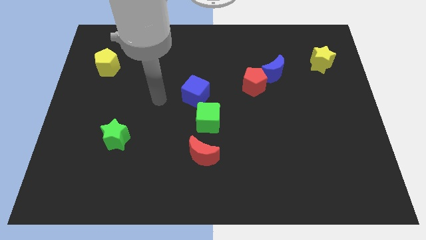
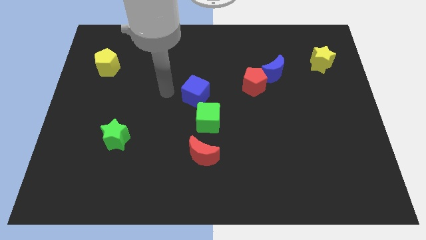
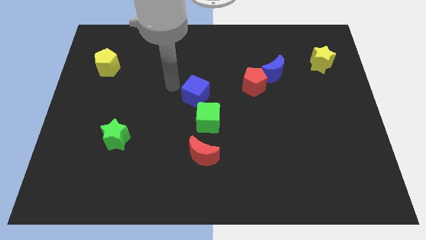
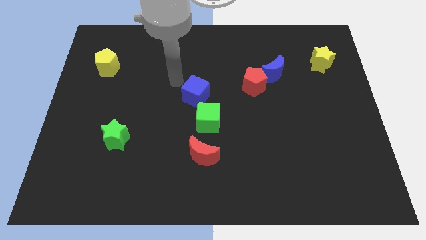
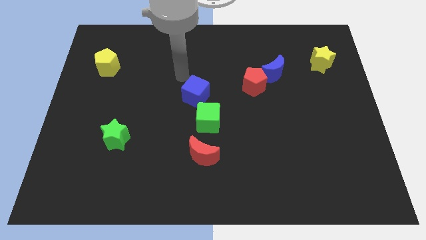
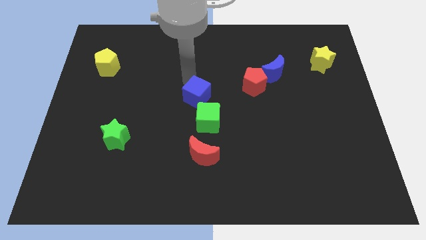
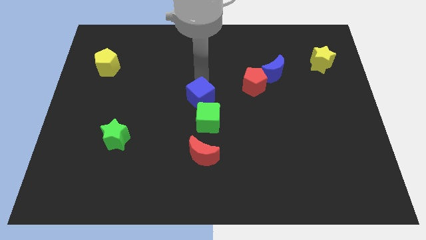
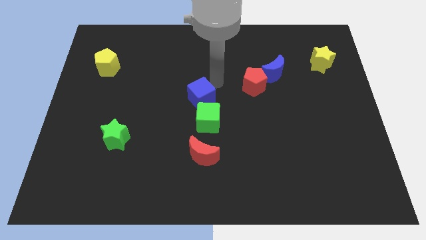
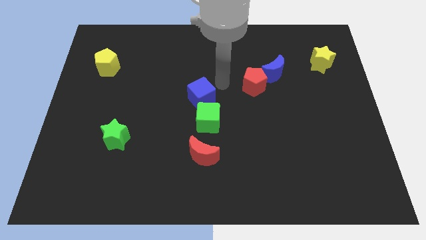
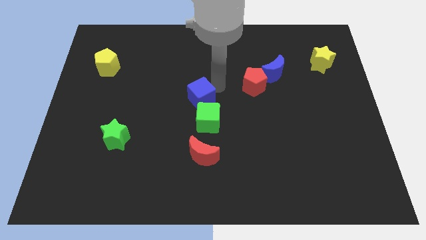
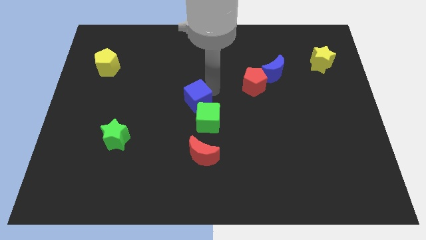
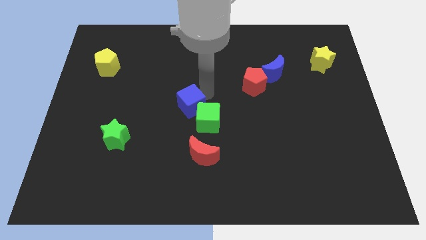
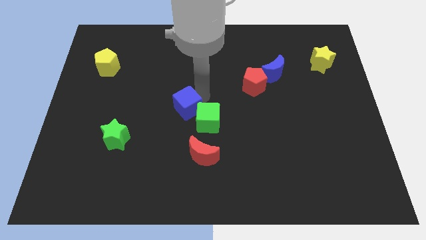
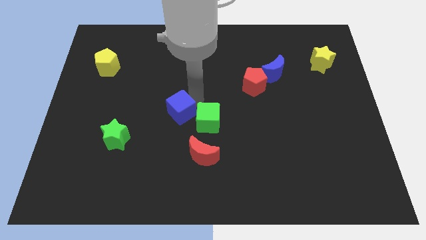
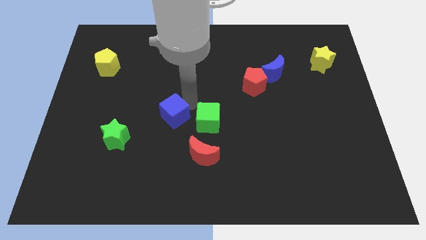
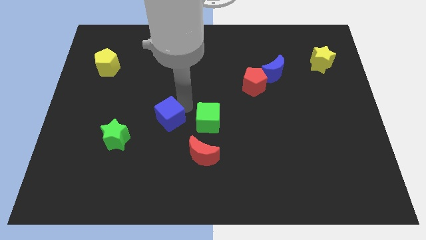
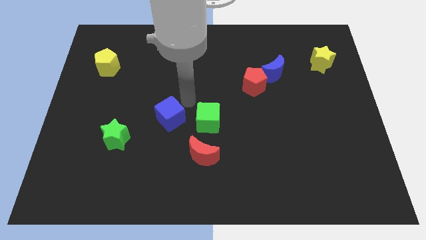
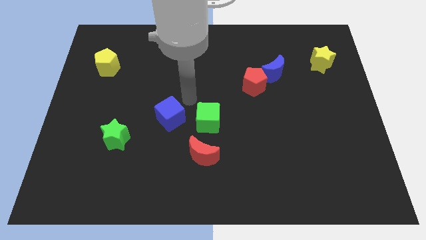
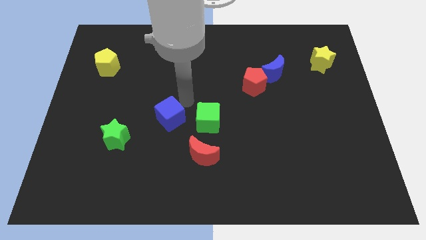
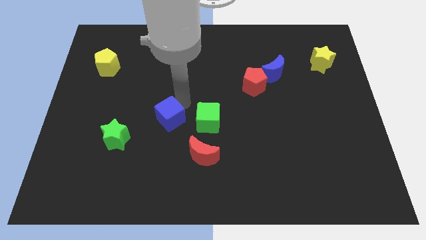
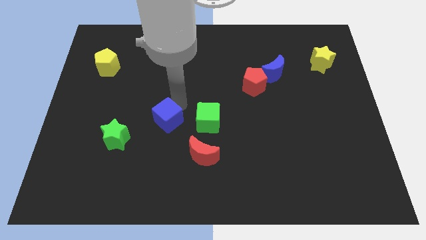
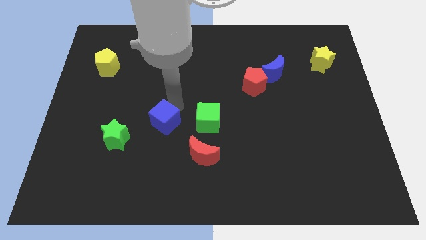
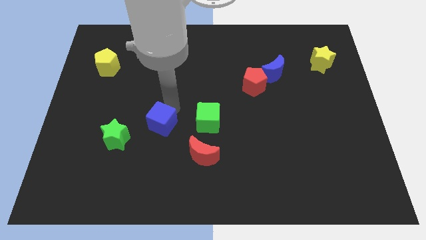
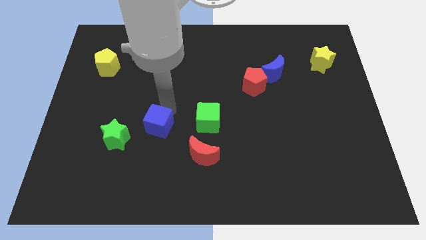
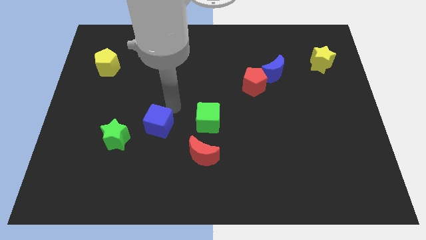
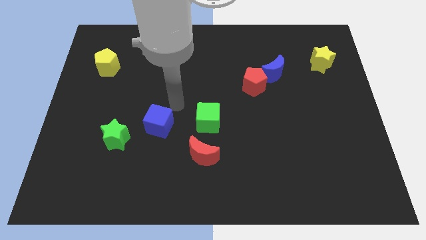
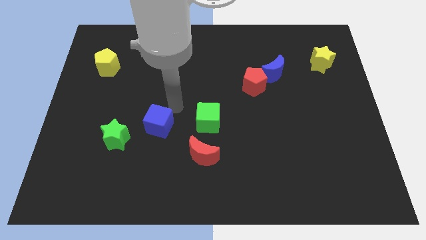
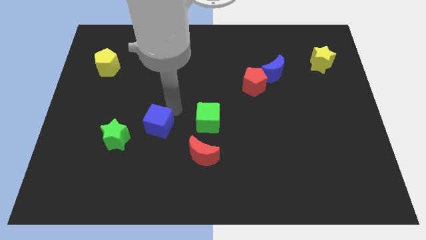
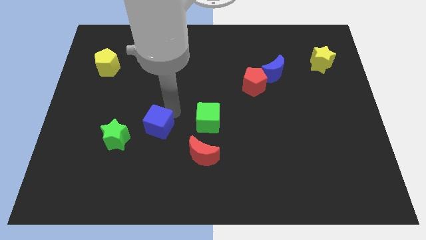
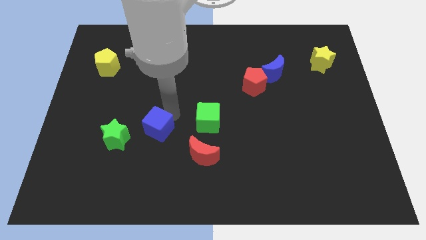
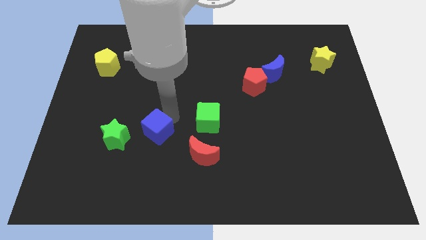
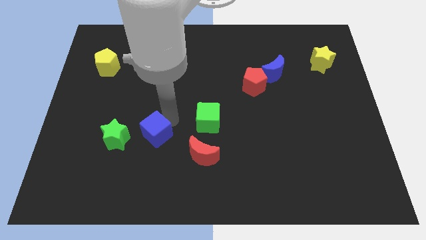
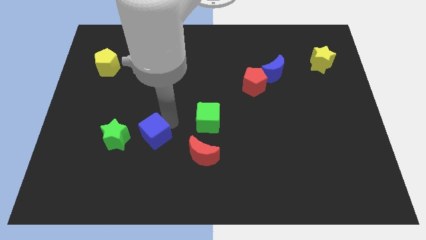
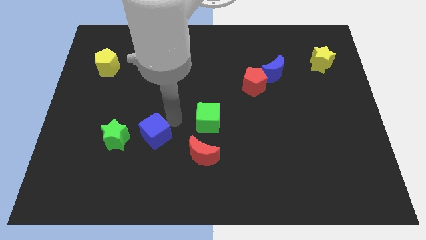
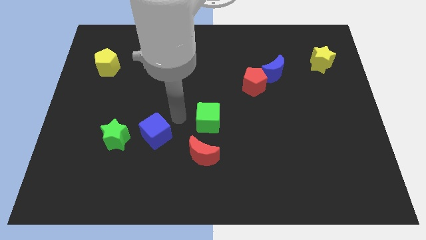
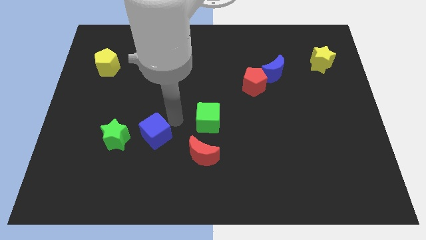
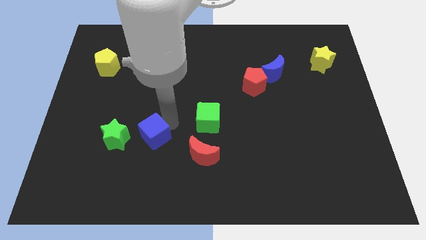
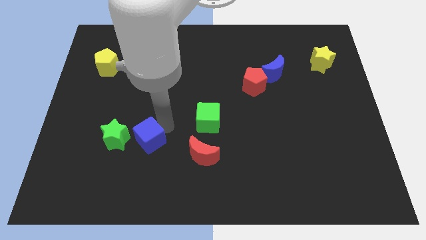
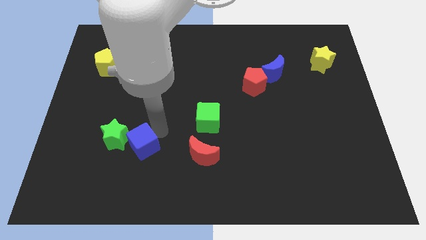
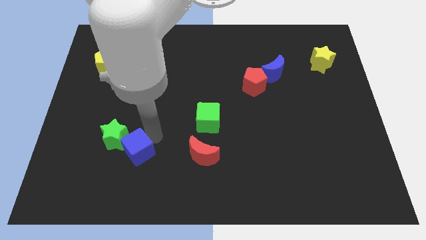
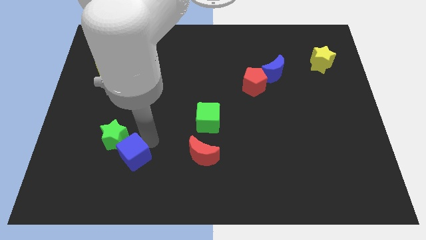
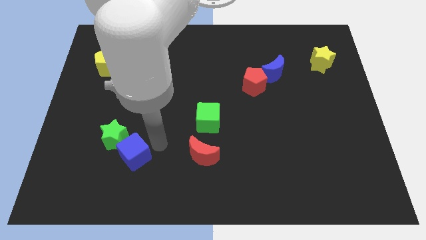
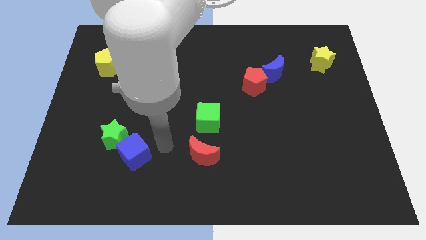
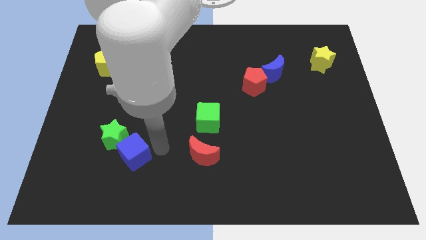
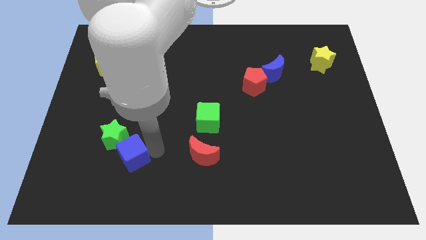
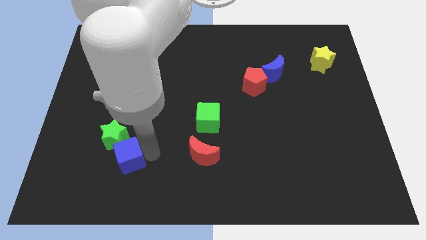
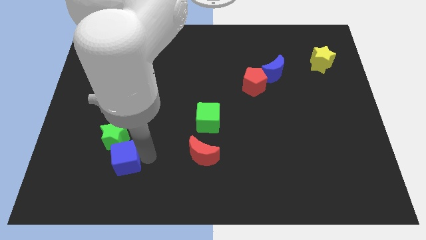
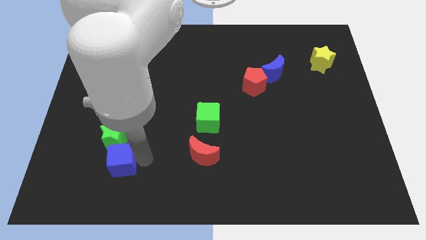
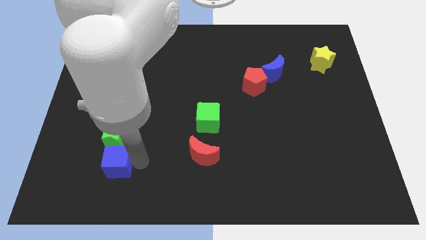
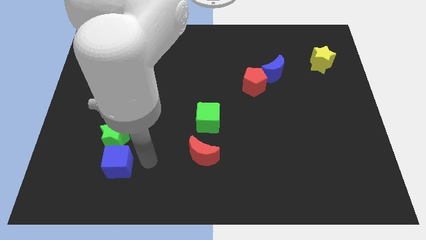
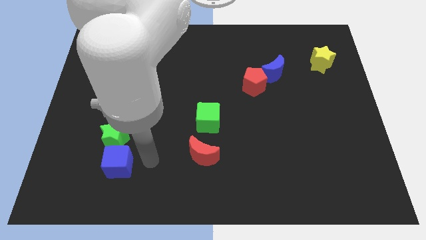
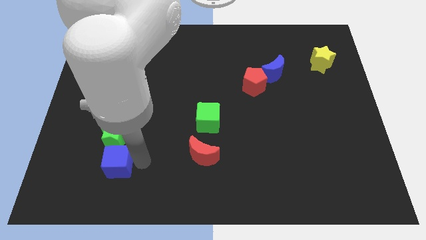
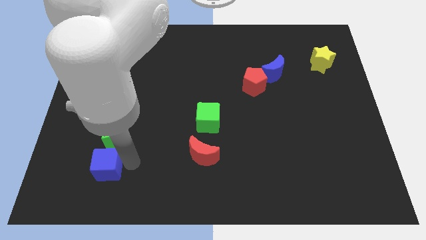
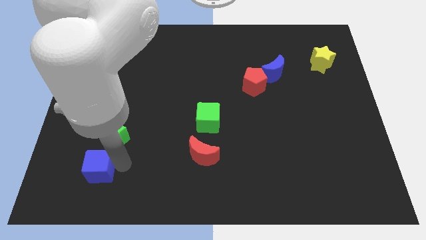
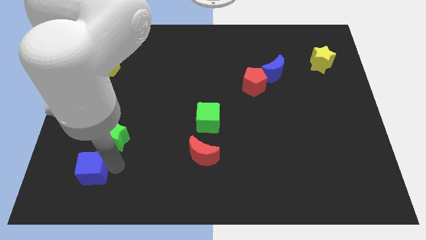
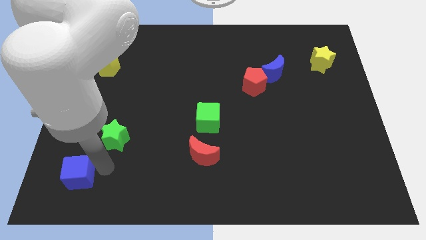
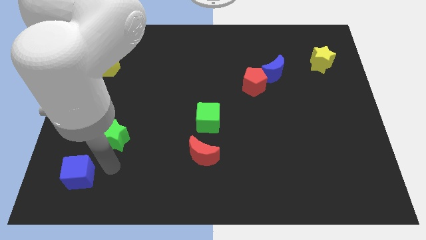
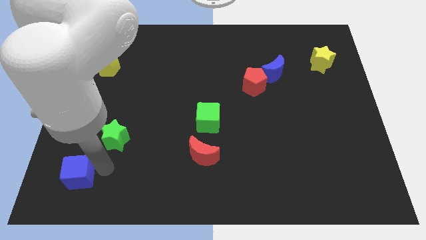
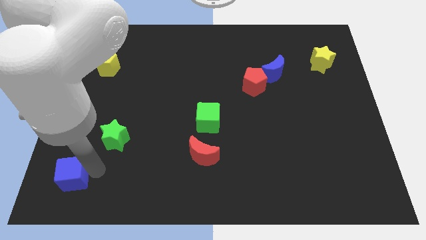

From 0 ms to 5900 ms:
slide the blue cube to the lower left corner

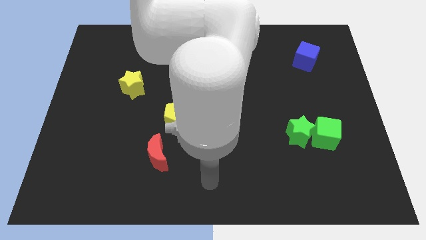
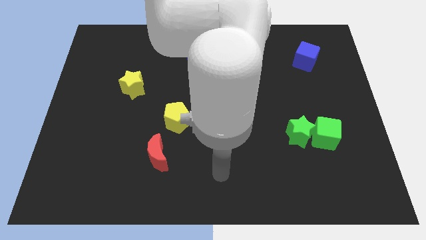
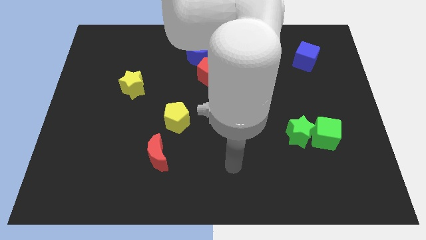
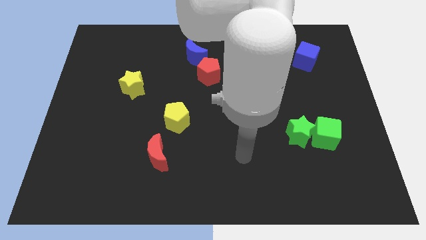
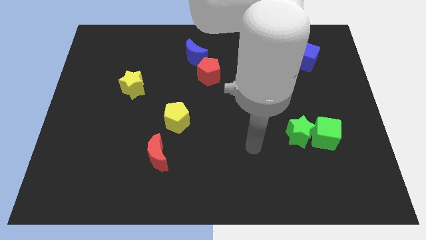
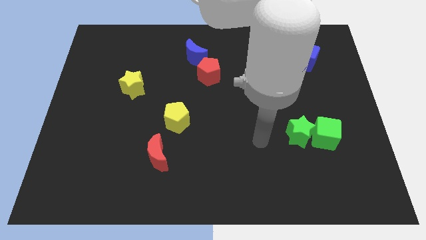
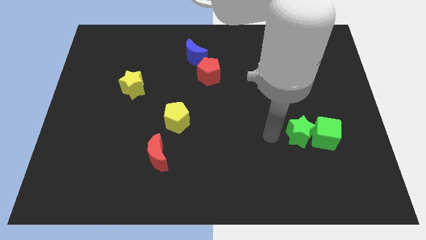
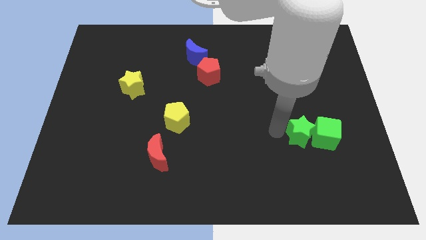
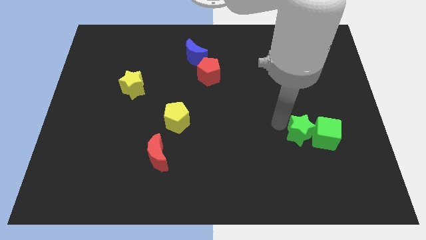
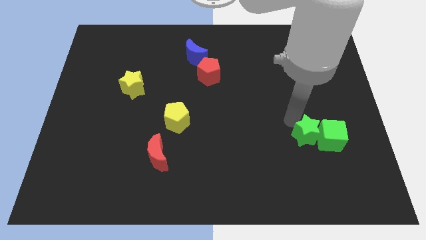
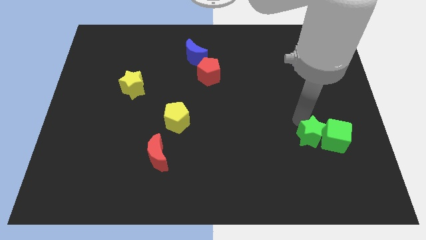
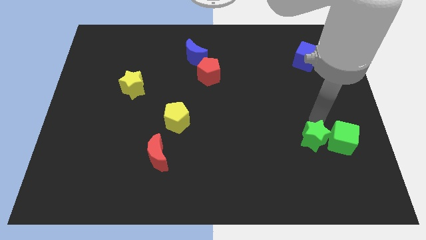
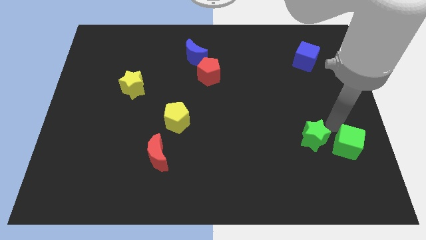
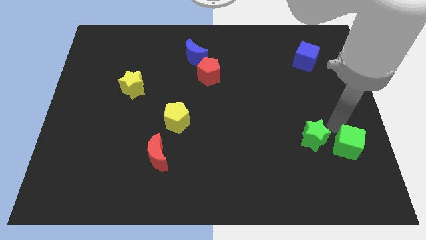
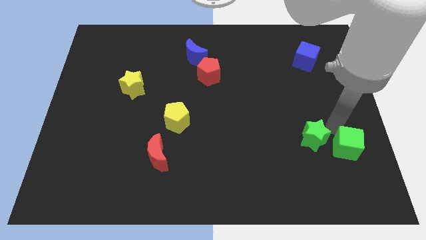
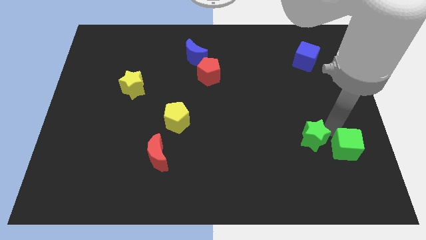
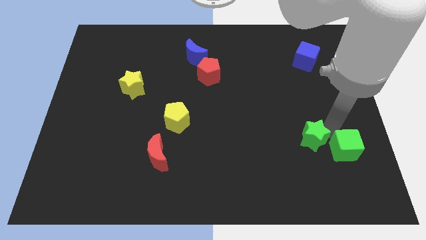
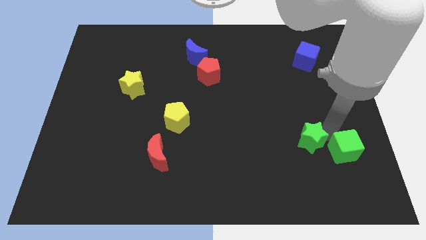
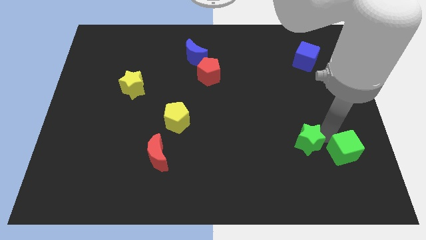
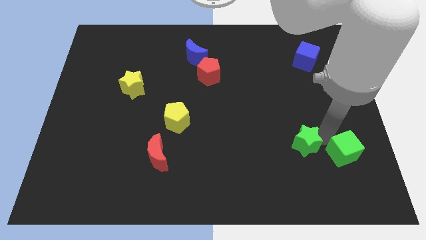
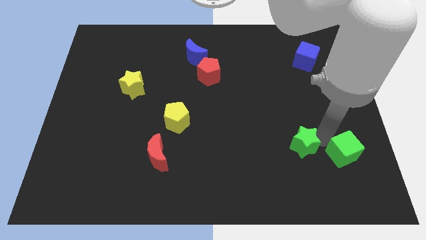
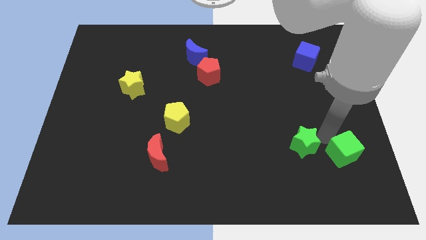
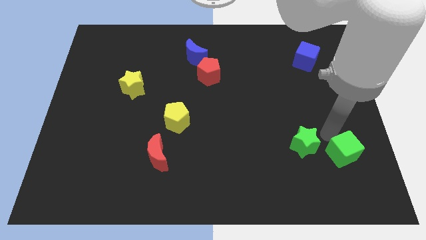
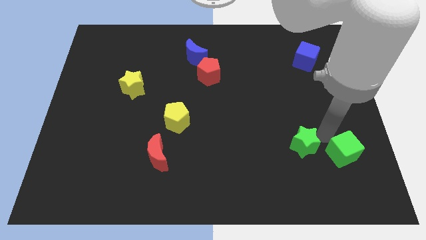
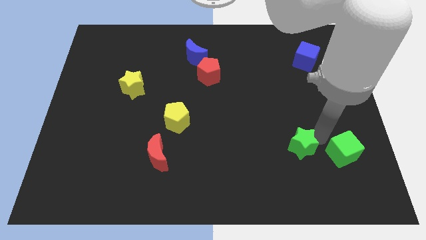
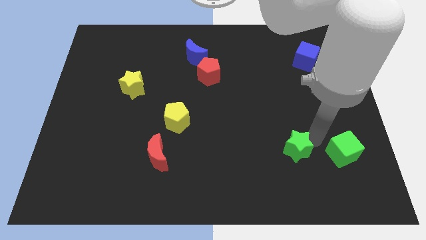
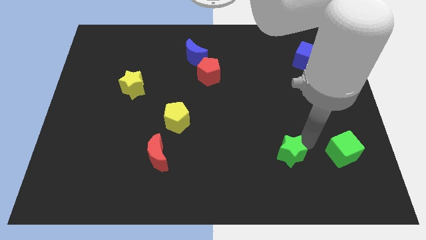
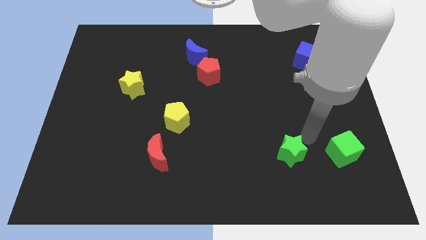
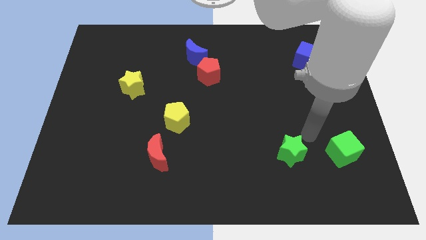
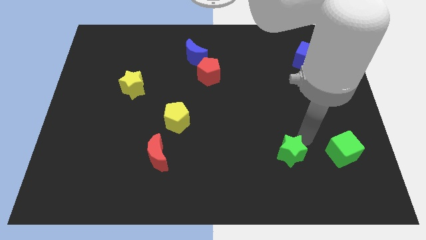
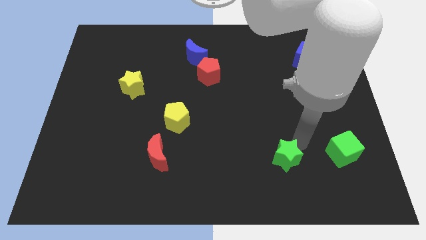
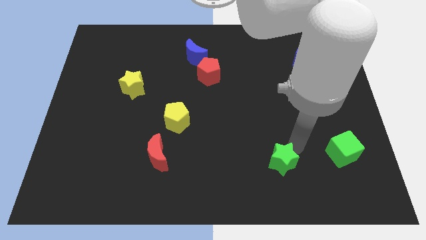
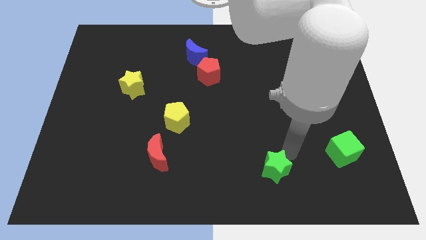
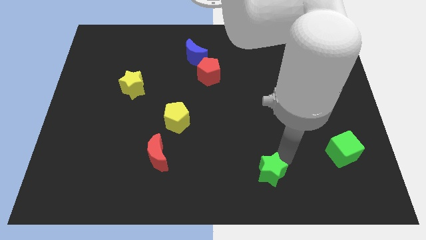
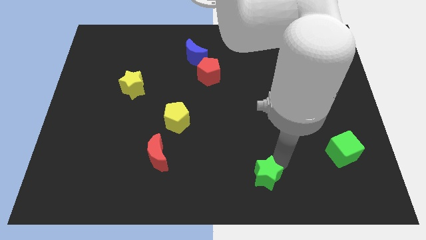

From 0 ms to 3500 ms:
push the green star to the bottom
